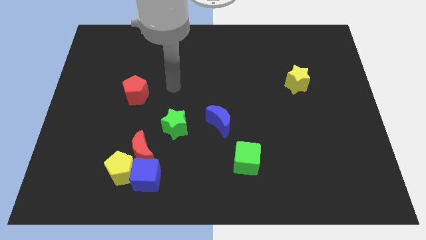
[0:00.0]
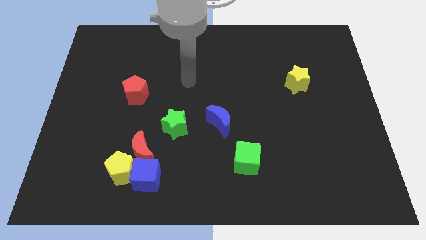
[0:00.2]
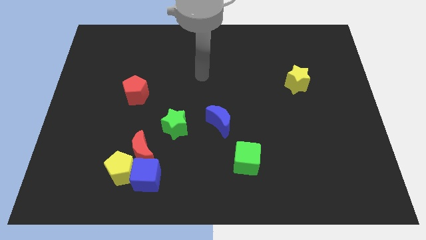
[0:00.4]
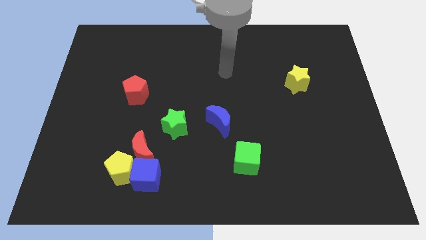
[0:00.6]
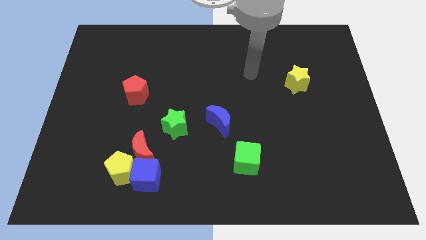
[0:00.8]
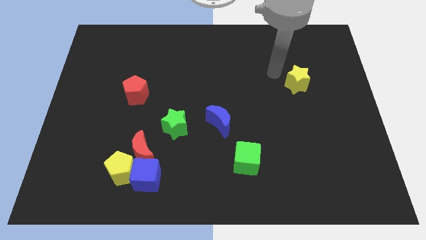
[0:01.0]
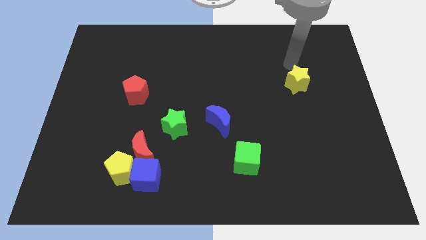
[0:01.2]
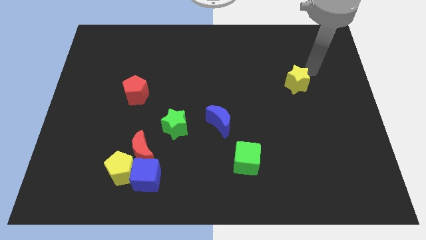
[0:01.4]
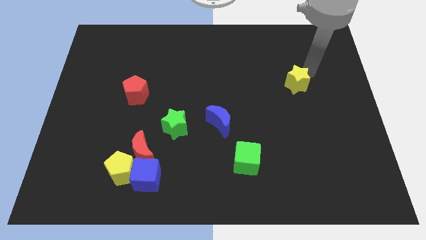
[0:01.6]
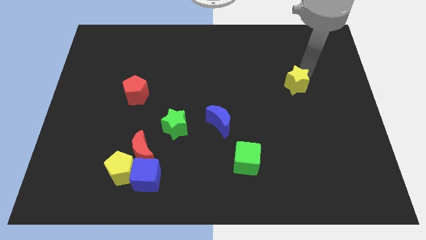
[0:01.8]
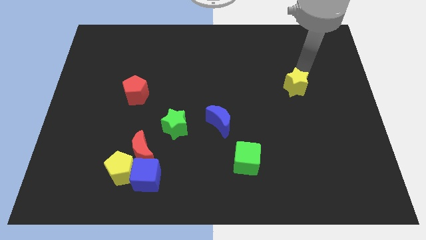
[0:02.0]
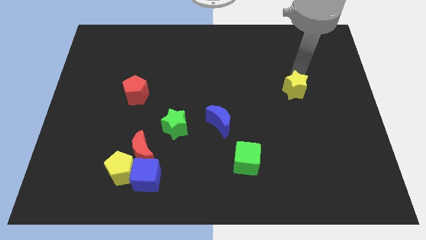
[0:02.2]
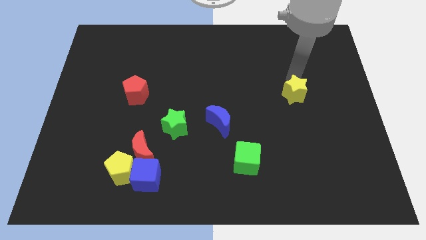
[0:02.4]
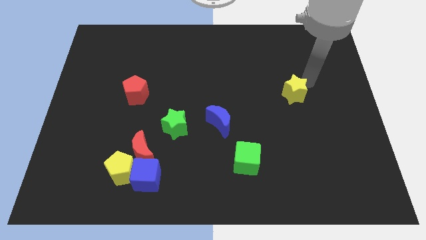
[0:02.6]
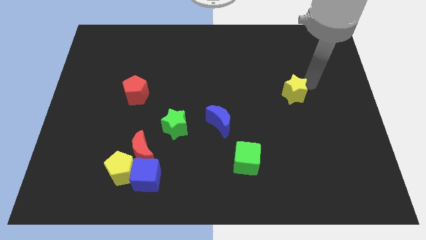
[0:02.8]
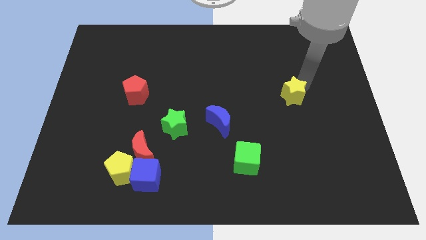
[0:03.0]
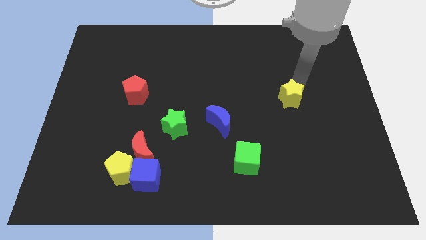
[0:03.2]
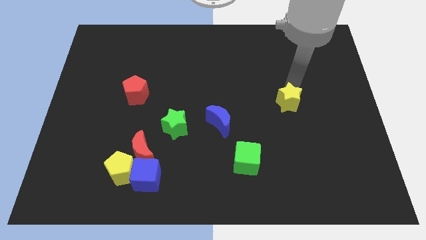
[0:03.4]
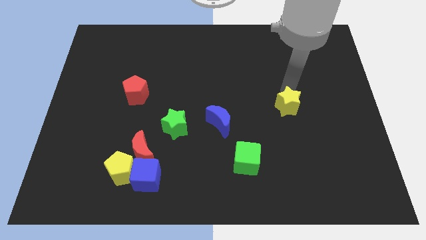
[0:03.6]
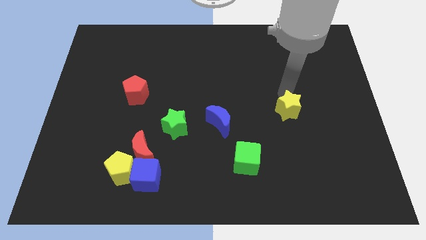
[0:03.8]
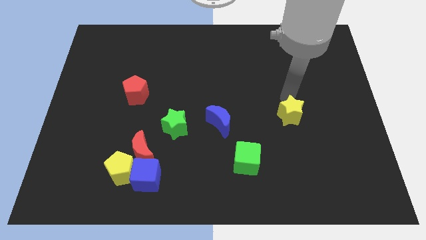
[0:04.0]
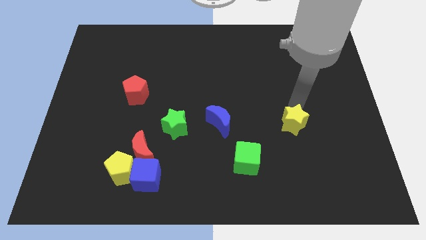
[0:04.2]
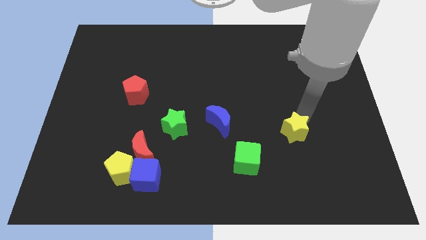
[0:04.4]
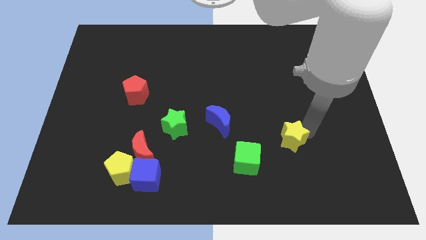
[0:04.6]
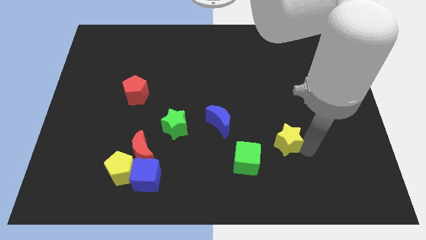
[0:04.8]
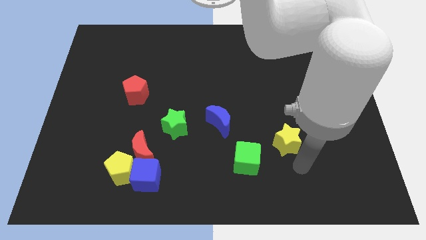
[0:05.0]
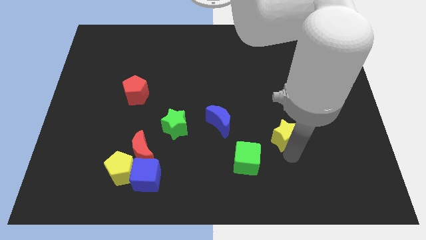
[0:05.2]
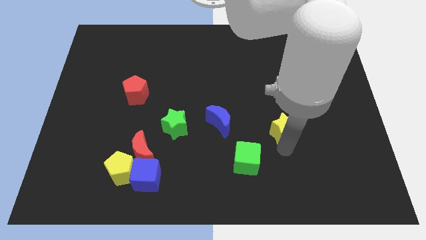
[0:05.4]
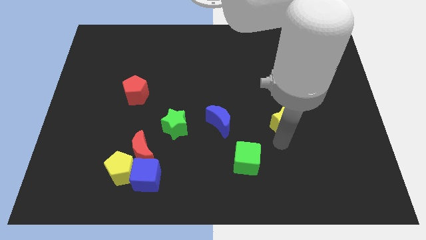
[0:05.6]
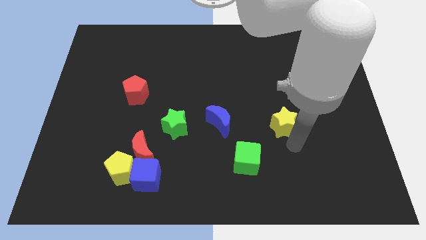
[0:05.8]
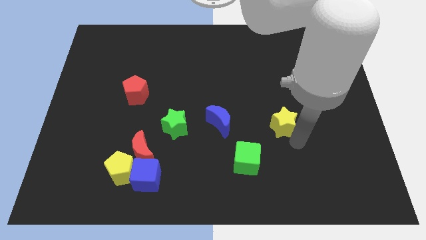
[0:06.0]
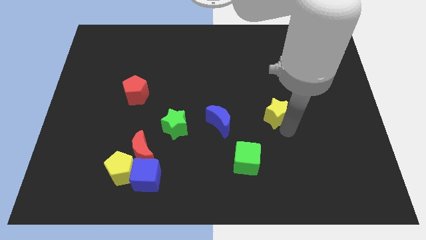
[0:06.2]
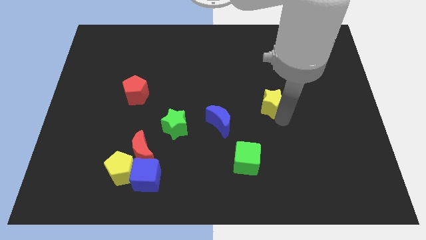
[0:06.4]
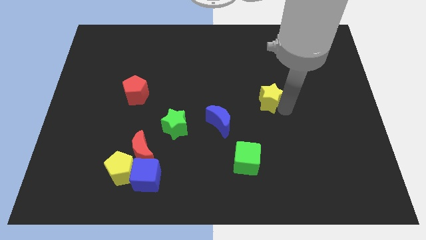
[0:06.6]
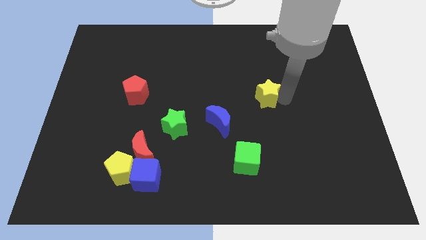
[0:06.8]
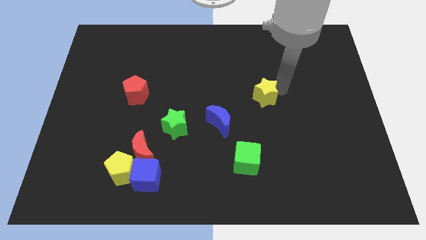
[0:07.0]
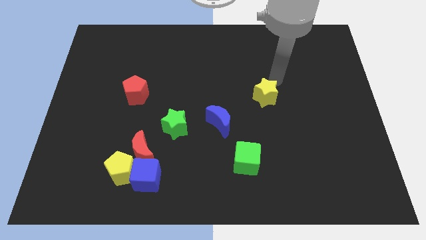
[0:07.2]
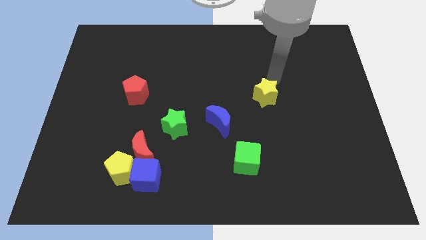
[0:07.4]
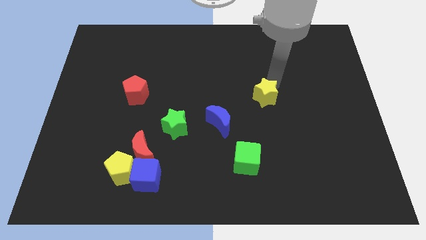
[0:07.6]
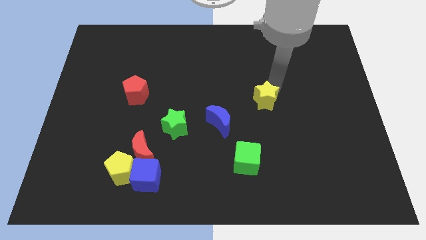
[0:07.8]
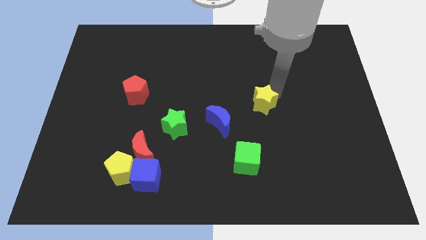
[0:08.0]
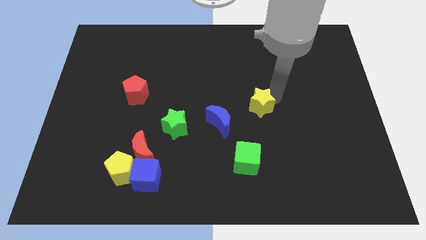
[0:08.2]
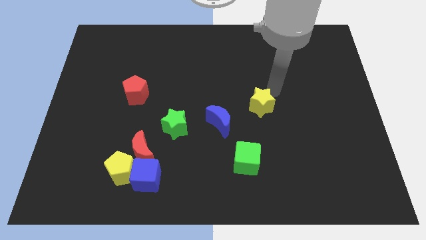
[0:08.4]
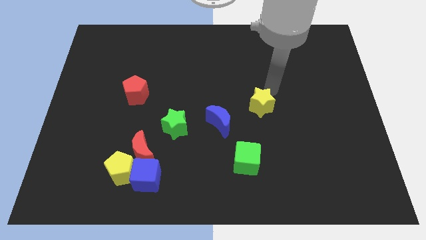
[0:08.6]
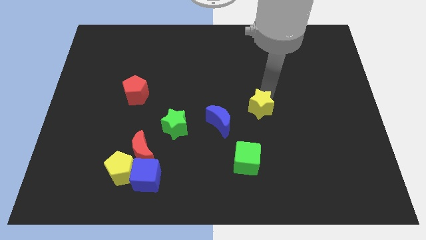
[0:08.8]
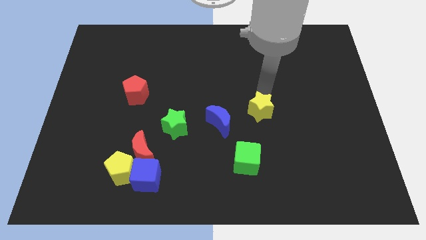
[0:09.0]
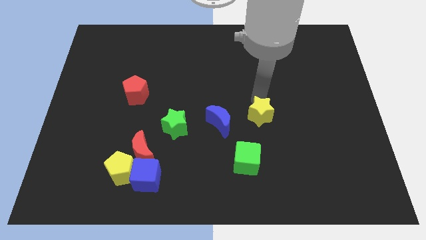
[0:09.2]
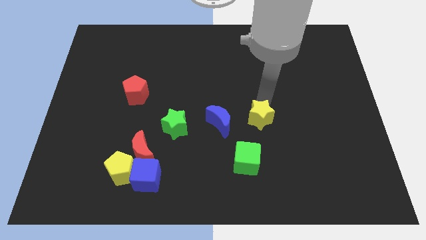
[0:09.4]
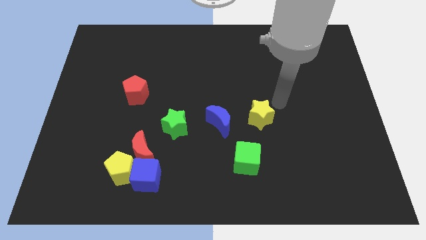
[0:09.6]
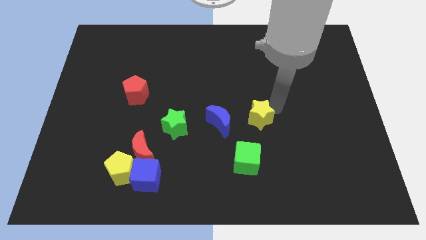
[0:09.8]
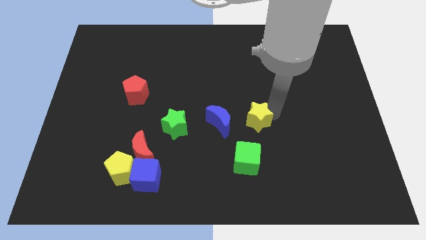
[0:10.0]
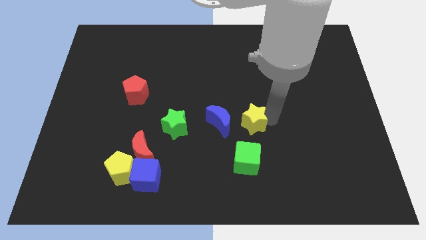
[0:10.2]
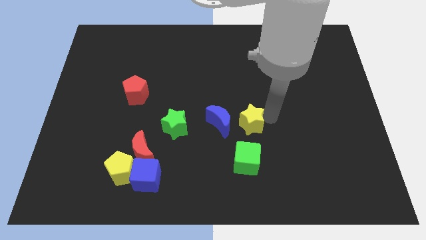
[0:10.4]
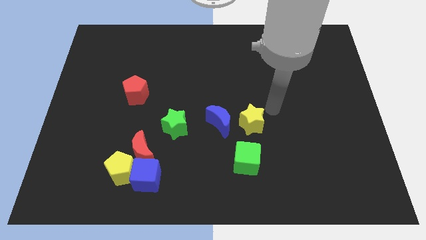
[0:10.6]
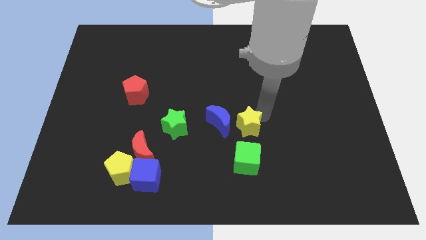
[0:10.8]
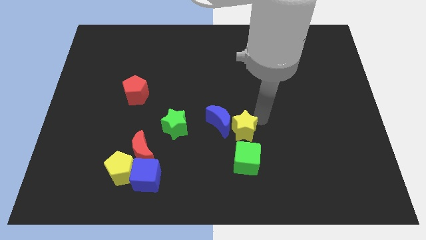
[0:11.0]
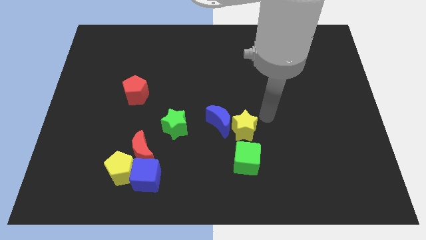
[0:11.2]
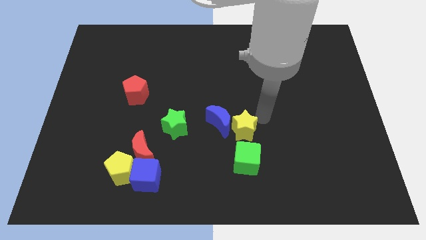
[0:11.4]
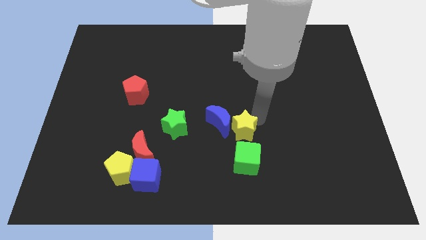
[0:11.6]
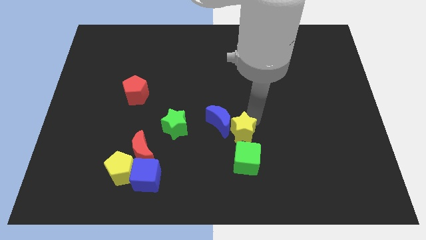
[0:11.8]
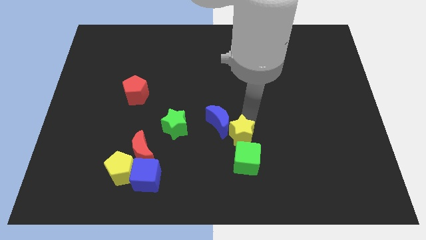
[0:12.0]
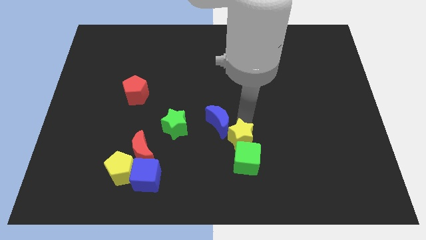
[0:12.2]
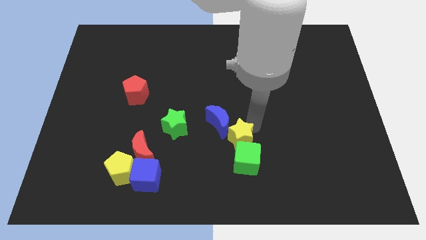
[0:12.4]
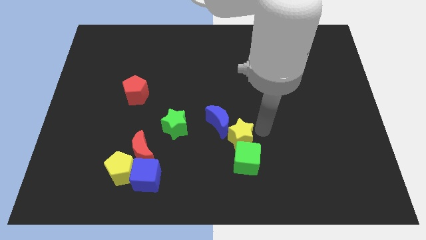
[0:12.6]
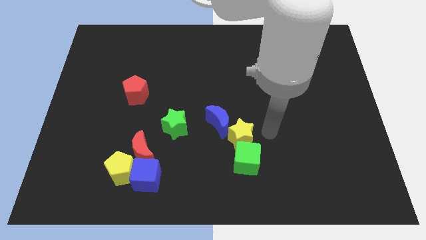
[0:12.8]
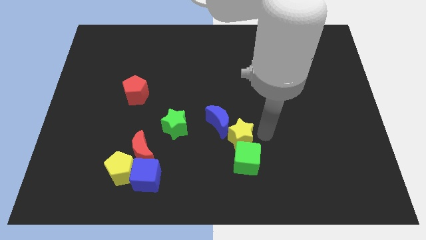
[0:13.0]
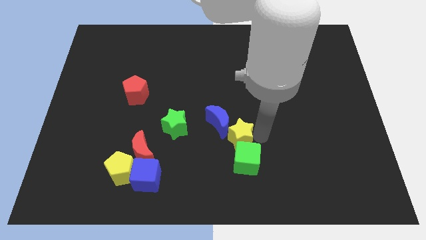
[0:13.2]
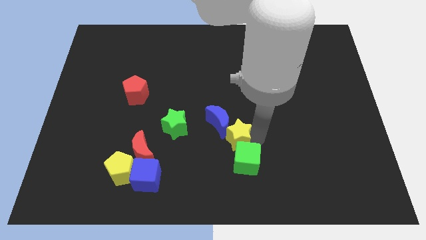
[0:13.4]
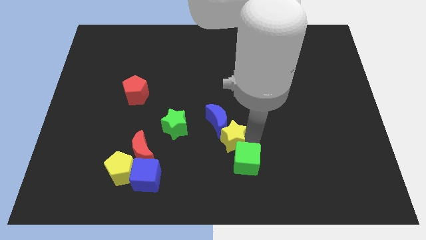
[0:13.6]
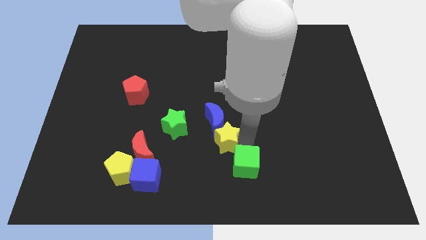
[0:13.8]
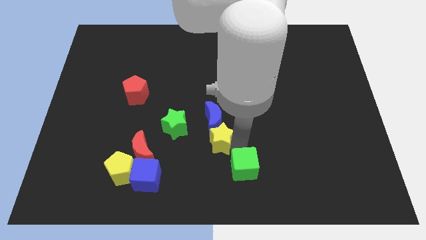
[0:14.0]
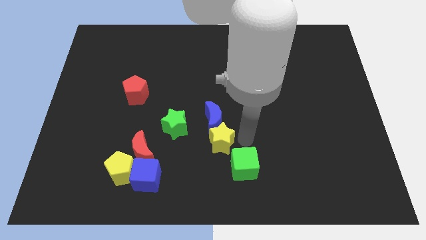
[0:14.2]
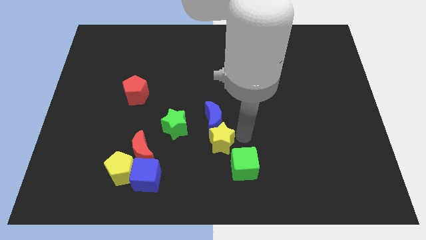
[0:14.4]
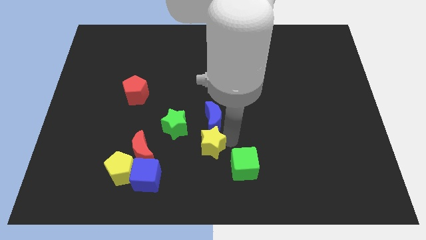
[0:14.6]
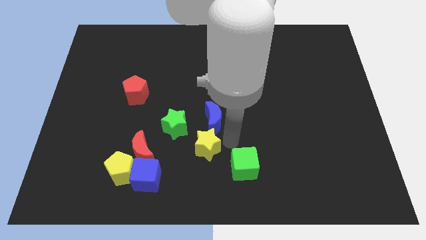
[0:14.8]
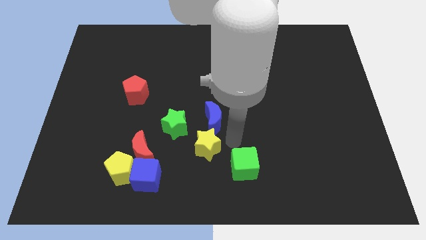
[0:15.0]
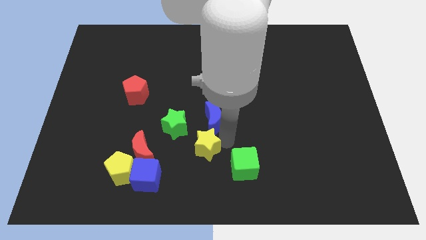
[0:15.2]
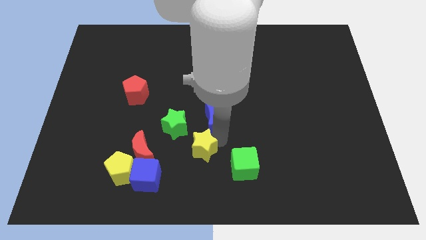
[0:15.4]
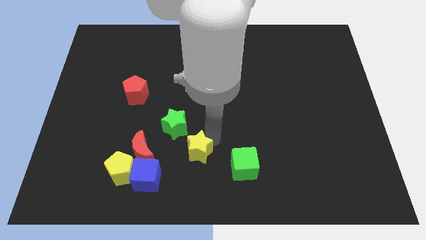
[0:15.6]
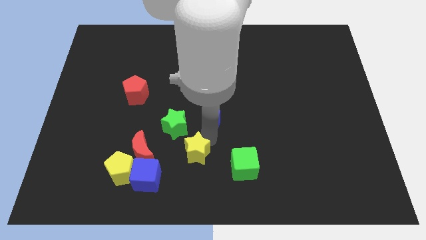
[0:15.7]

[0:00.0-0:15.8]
move the yellow star to the top right side of the blue cube

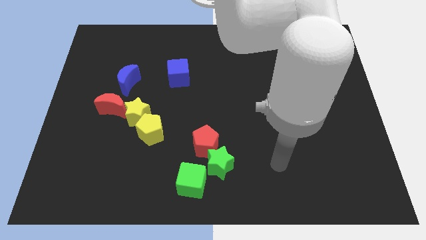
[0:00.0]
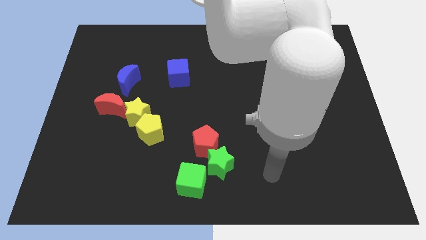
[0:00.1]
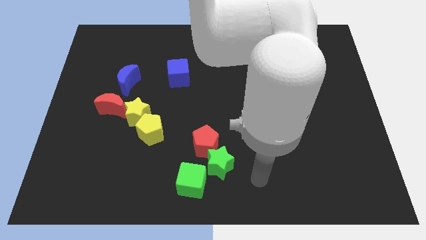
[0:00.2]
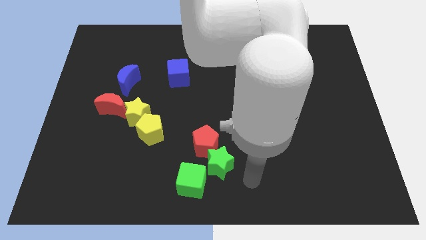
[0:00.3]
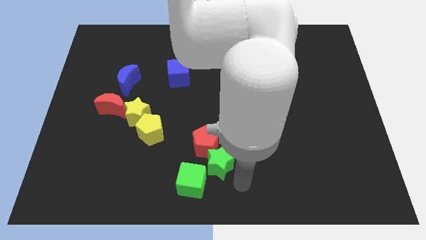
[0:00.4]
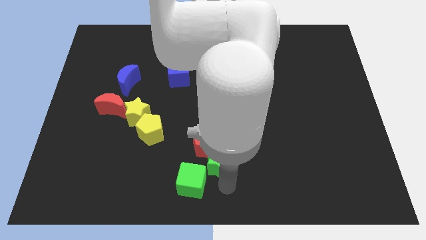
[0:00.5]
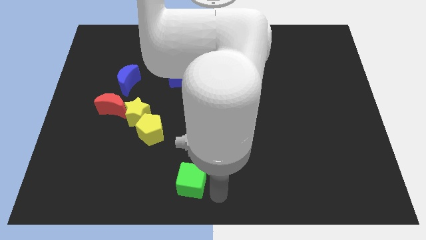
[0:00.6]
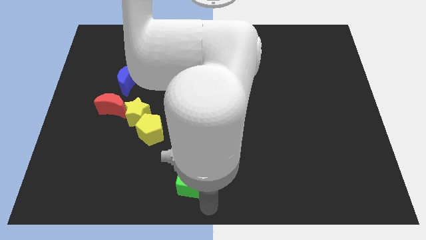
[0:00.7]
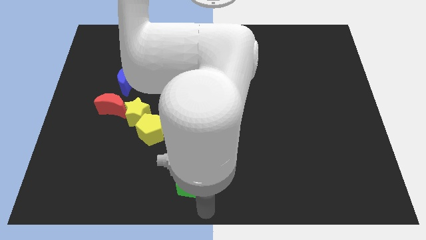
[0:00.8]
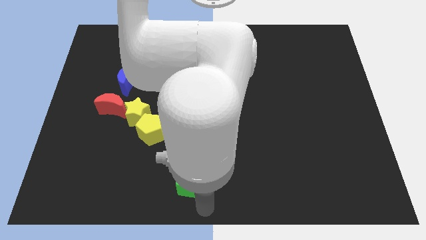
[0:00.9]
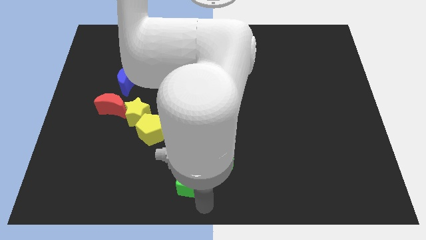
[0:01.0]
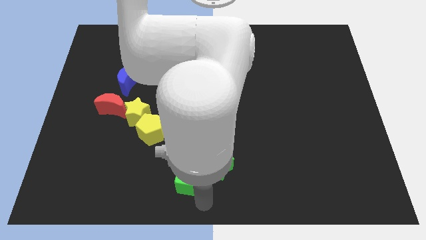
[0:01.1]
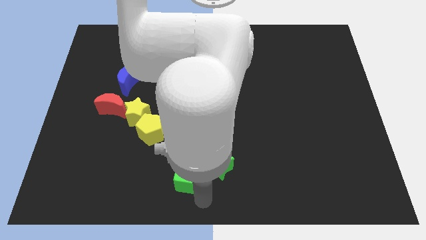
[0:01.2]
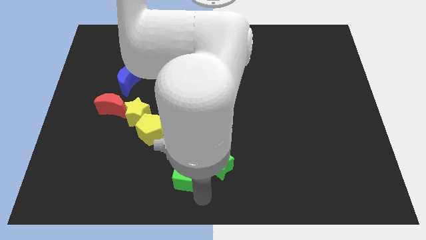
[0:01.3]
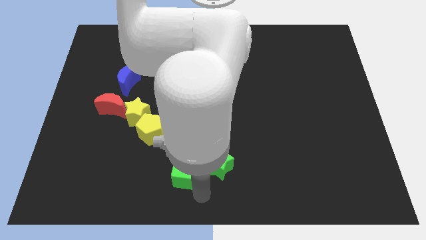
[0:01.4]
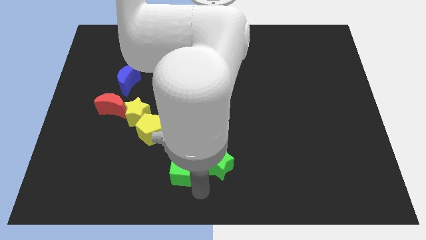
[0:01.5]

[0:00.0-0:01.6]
slide the green cube to the bottom right side of the yellow pentagon
